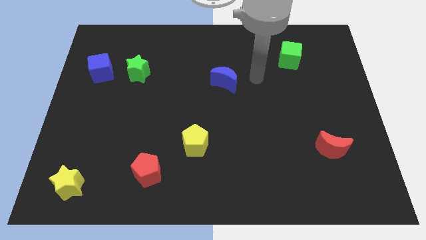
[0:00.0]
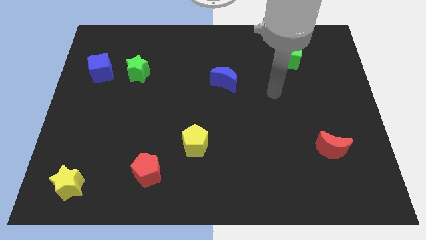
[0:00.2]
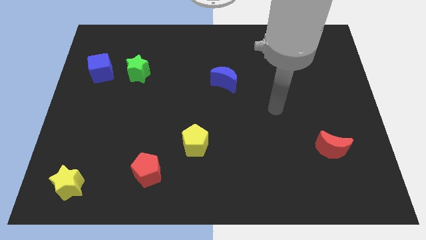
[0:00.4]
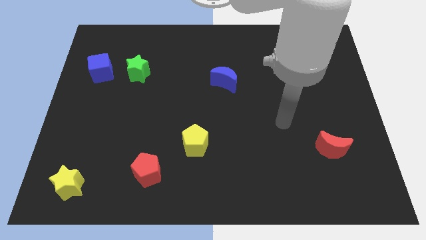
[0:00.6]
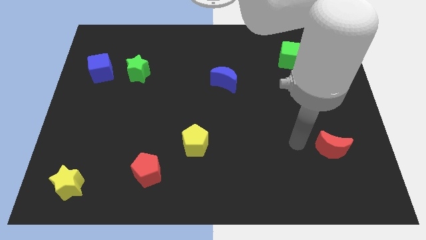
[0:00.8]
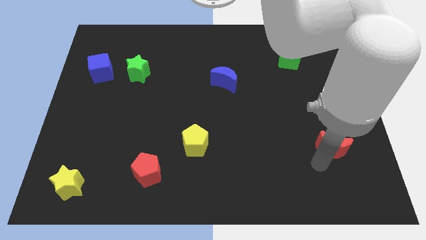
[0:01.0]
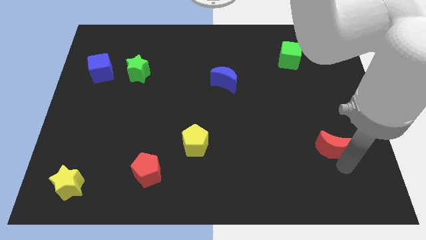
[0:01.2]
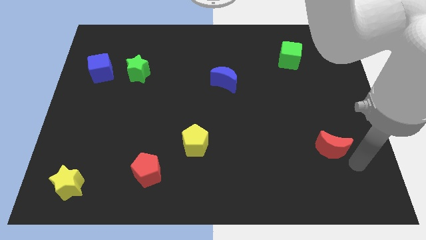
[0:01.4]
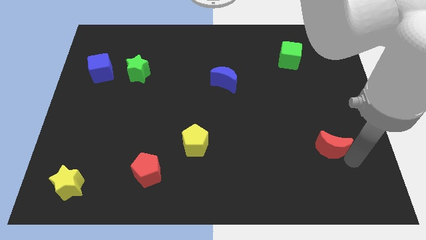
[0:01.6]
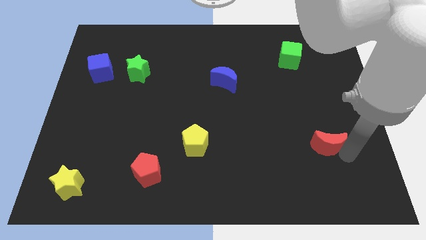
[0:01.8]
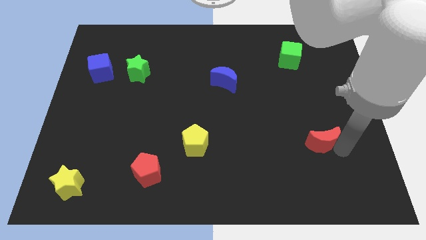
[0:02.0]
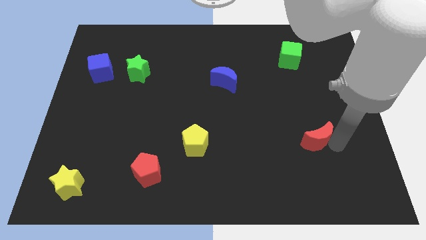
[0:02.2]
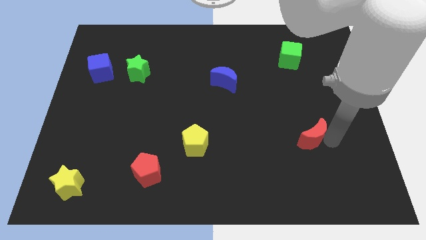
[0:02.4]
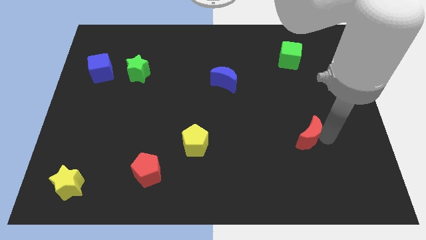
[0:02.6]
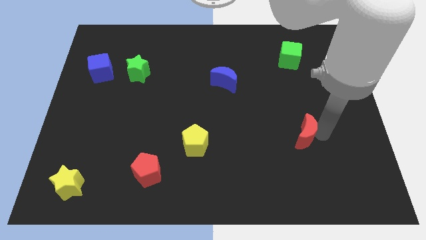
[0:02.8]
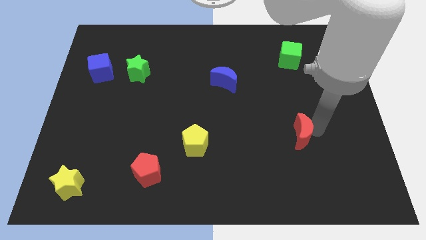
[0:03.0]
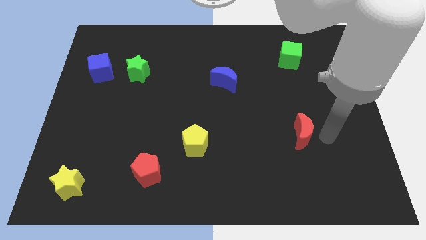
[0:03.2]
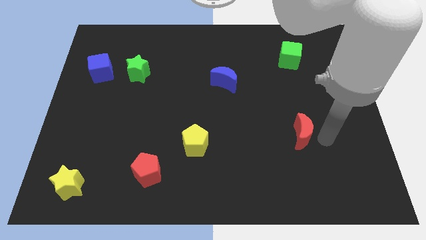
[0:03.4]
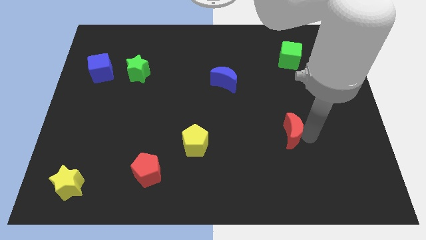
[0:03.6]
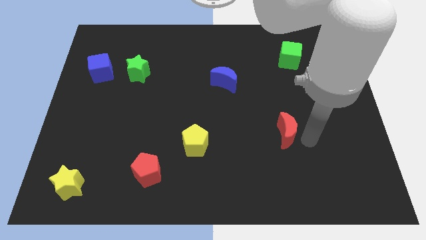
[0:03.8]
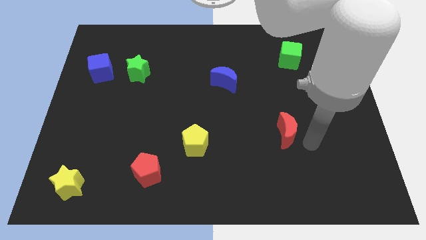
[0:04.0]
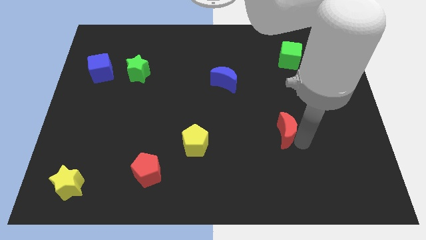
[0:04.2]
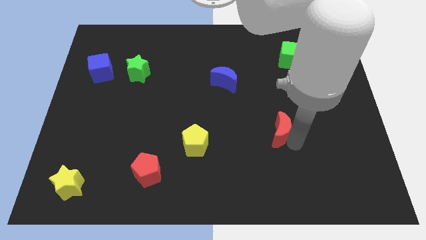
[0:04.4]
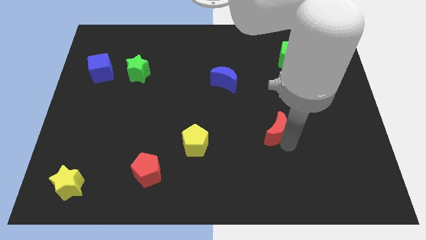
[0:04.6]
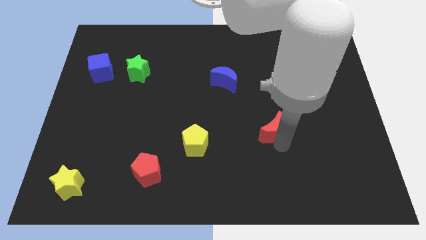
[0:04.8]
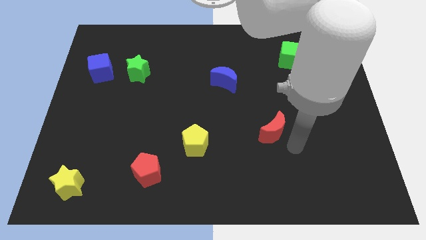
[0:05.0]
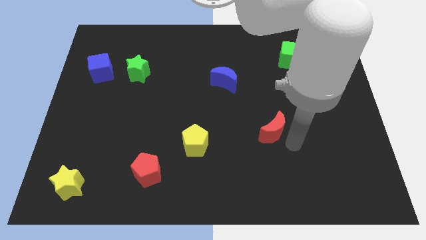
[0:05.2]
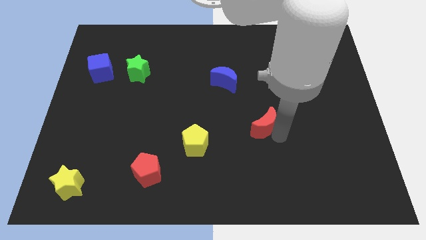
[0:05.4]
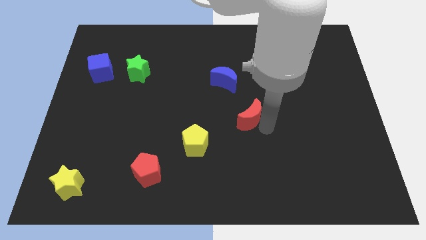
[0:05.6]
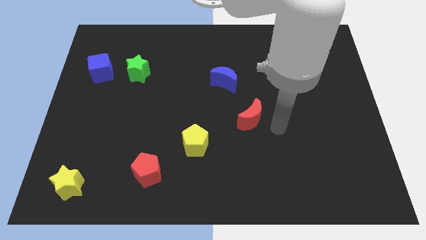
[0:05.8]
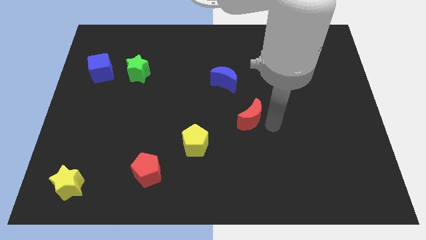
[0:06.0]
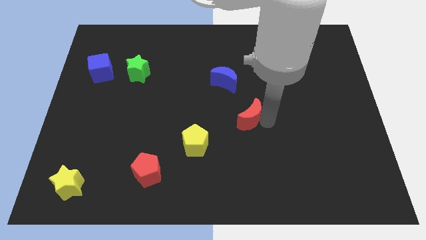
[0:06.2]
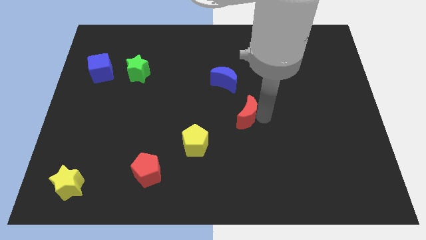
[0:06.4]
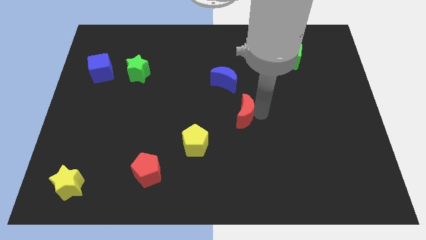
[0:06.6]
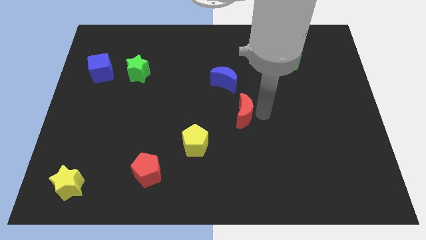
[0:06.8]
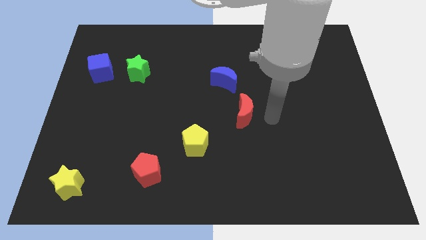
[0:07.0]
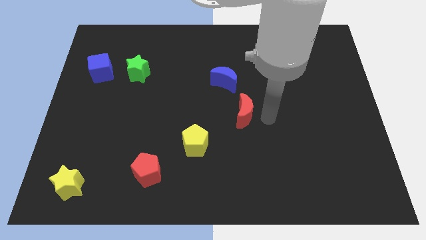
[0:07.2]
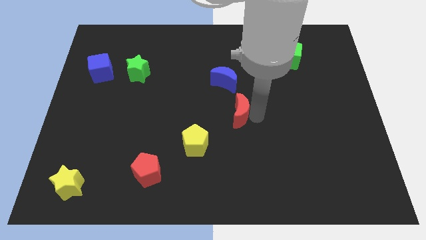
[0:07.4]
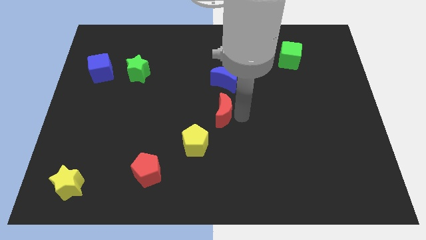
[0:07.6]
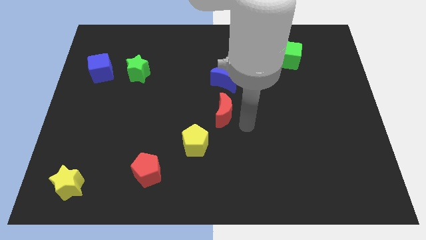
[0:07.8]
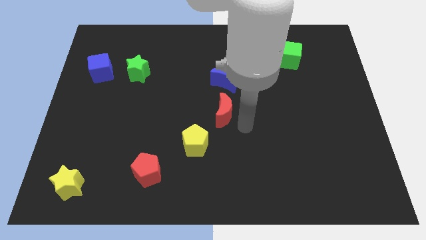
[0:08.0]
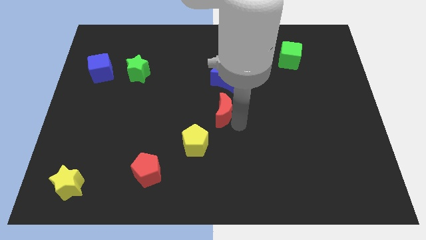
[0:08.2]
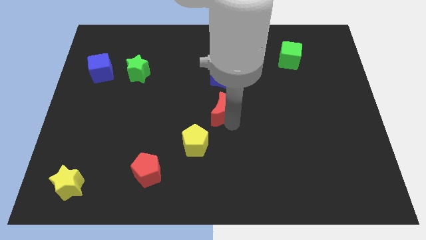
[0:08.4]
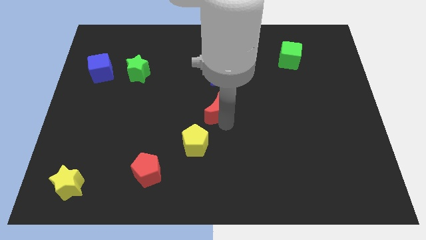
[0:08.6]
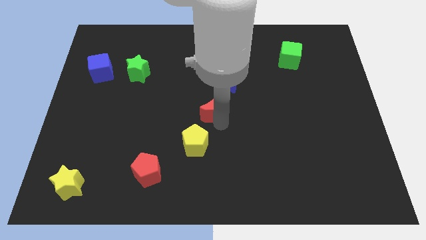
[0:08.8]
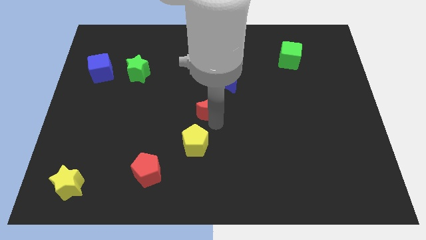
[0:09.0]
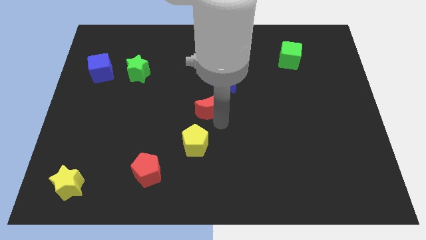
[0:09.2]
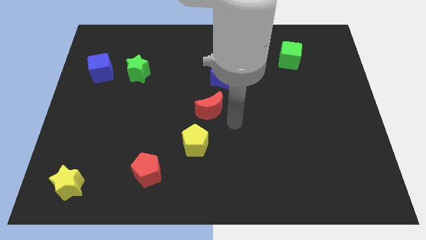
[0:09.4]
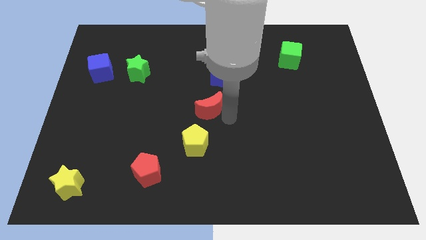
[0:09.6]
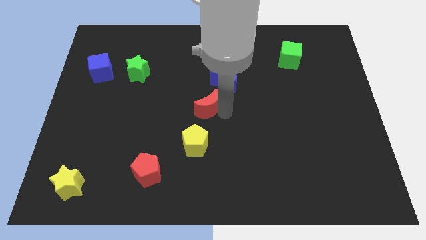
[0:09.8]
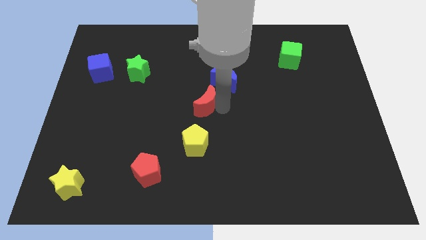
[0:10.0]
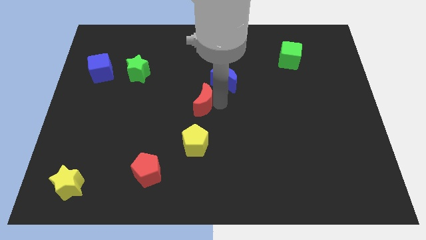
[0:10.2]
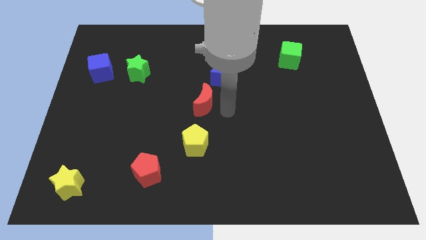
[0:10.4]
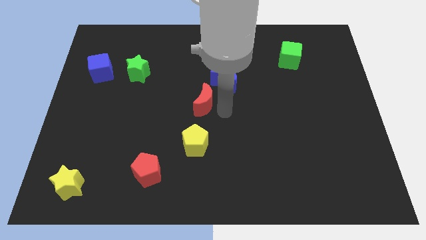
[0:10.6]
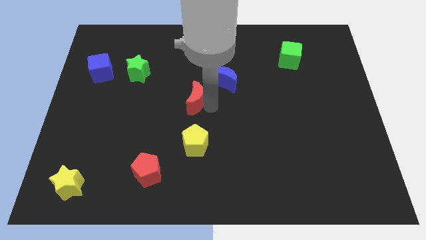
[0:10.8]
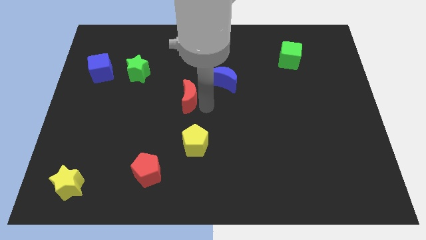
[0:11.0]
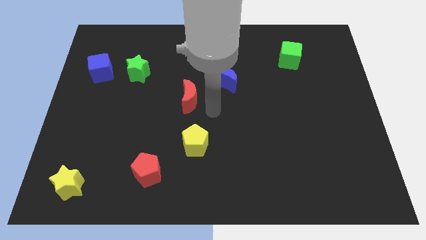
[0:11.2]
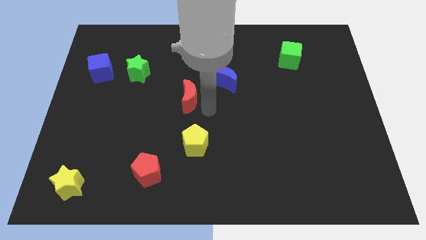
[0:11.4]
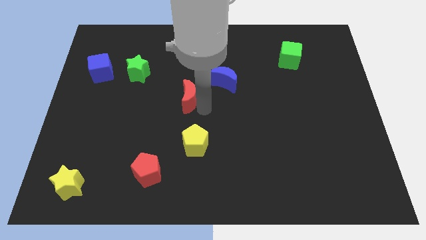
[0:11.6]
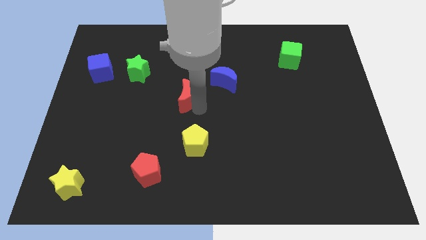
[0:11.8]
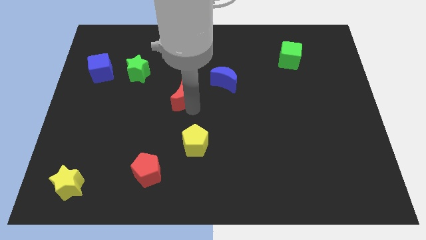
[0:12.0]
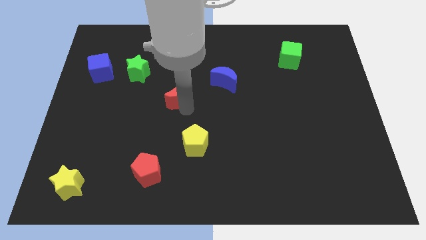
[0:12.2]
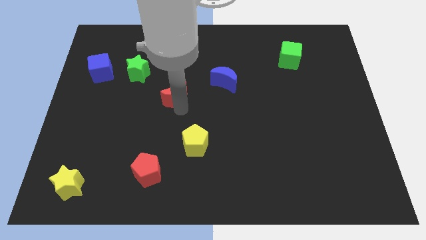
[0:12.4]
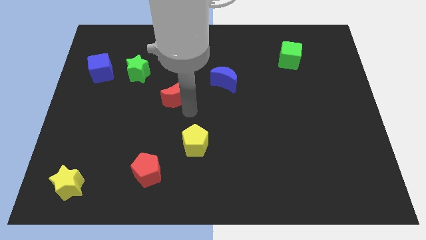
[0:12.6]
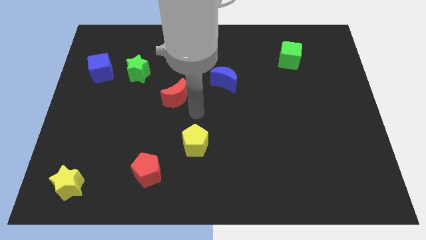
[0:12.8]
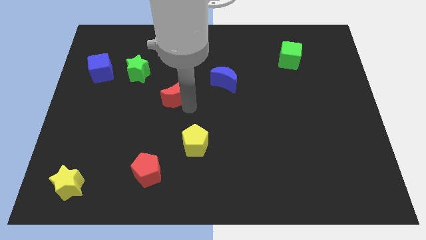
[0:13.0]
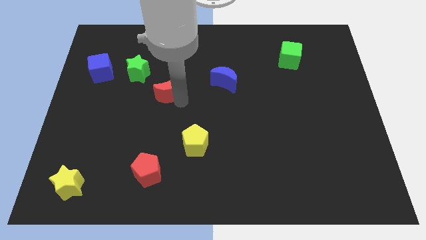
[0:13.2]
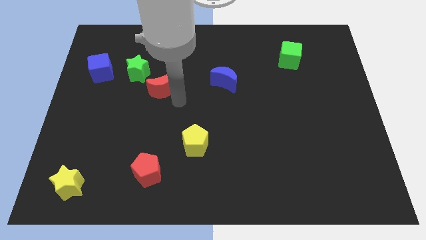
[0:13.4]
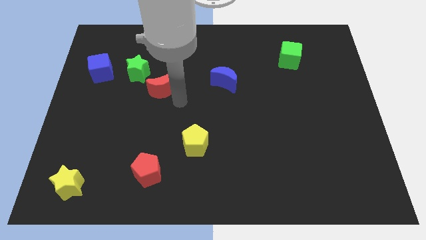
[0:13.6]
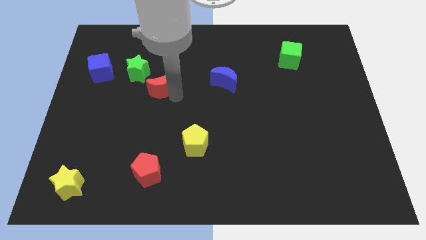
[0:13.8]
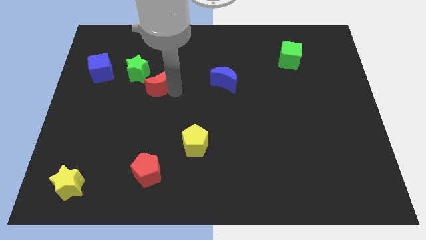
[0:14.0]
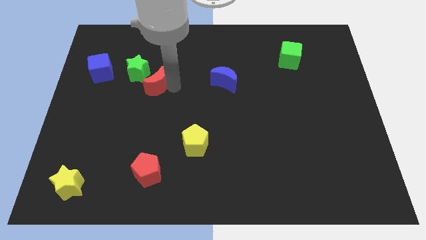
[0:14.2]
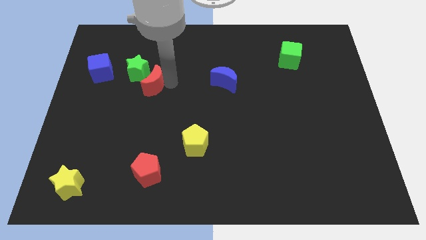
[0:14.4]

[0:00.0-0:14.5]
push the red moon next to the green star

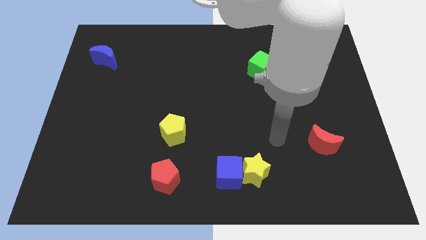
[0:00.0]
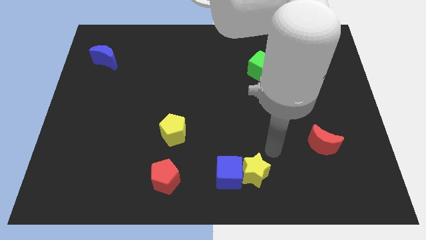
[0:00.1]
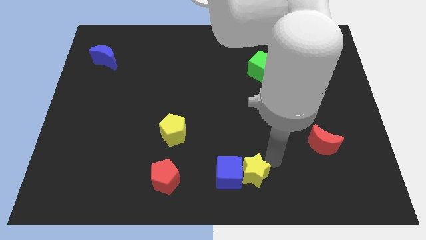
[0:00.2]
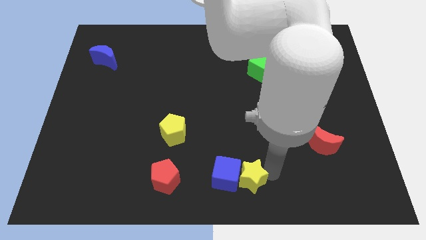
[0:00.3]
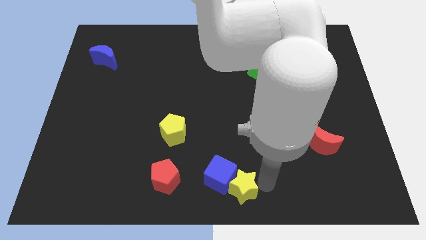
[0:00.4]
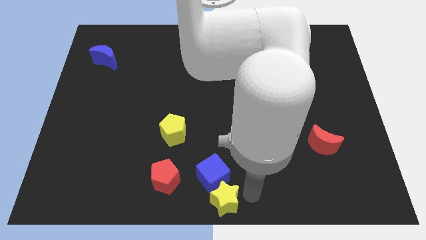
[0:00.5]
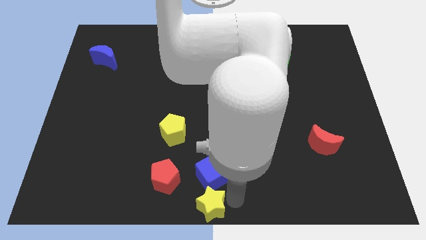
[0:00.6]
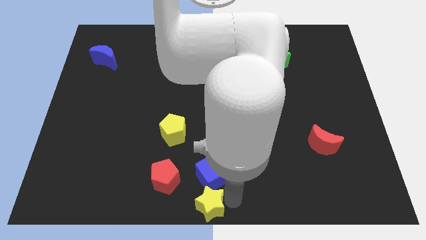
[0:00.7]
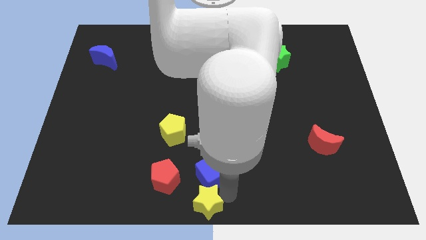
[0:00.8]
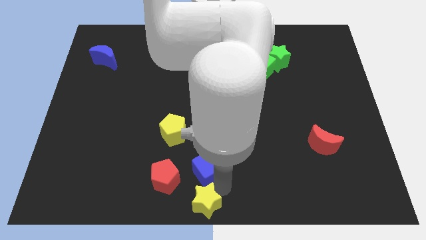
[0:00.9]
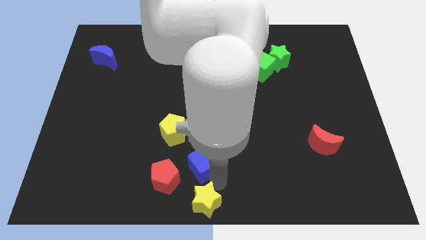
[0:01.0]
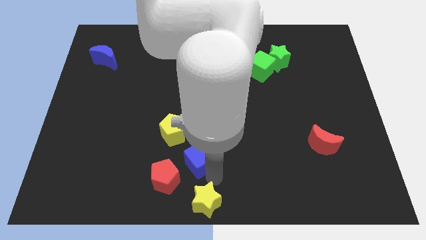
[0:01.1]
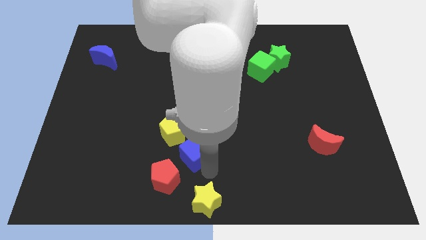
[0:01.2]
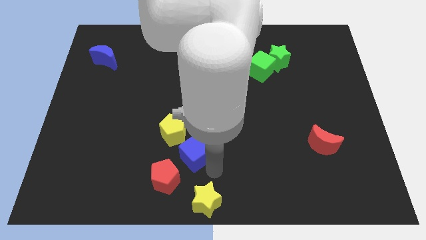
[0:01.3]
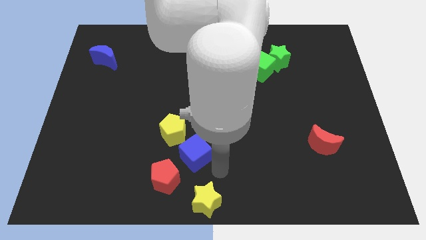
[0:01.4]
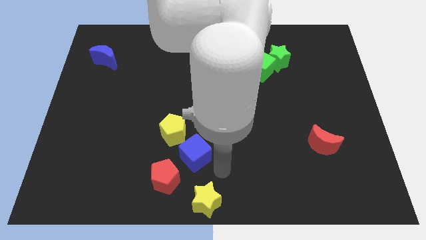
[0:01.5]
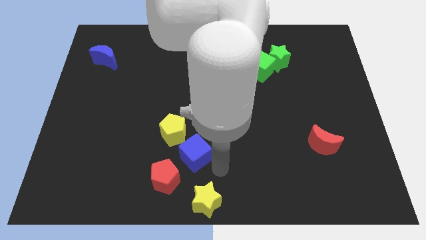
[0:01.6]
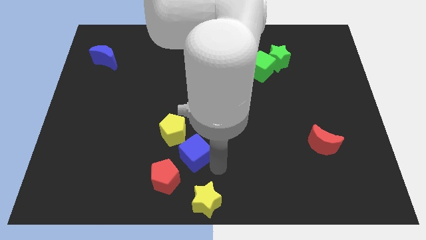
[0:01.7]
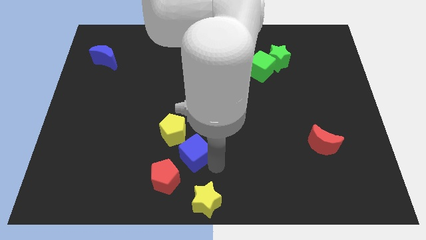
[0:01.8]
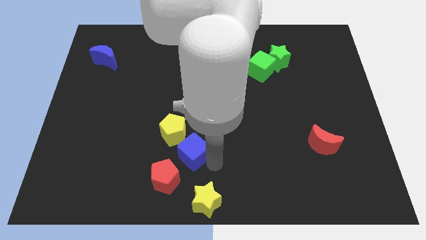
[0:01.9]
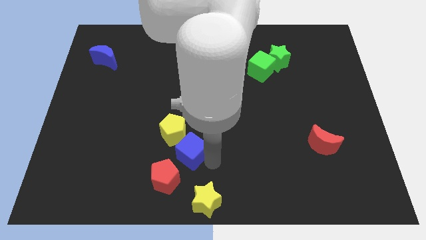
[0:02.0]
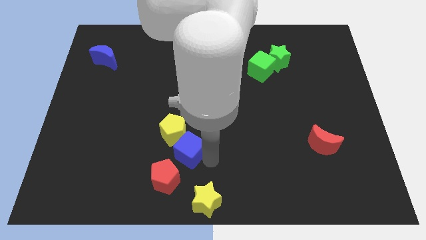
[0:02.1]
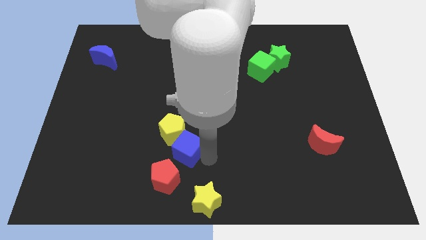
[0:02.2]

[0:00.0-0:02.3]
slide the blue cube to the yellow pentagon
